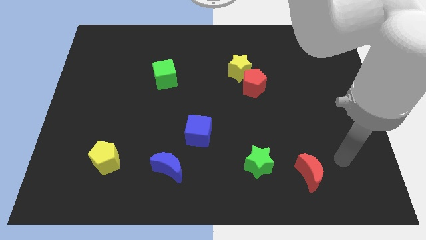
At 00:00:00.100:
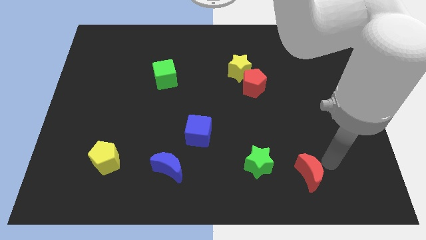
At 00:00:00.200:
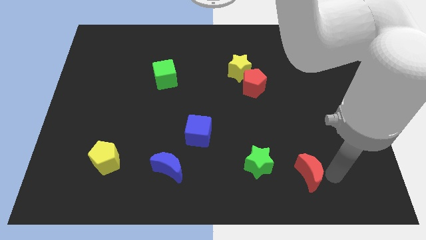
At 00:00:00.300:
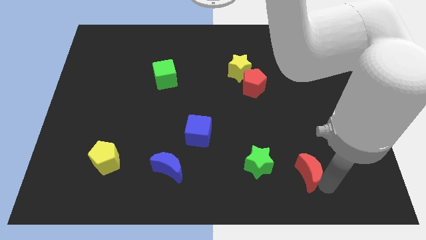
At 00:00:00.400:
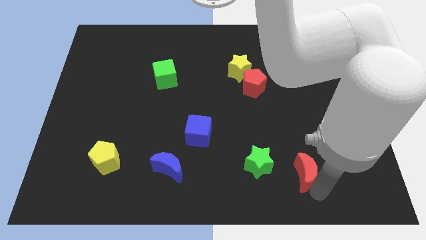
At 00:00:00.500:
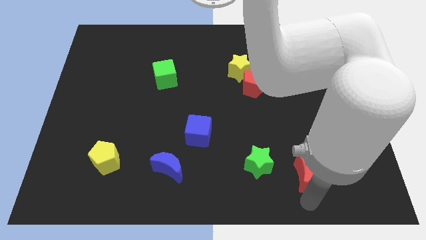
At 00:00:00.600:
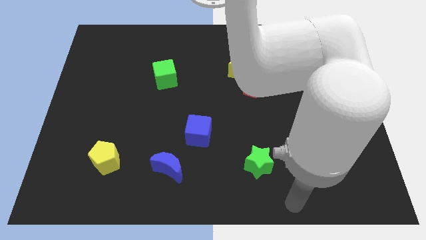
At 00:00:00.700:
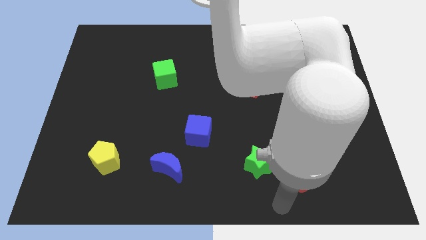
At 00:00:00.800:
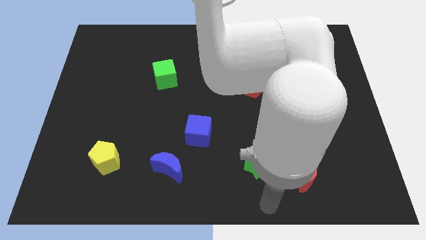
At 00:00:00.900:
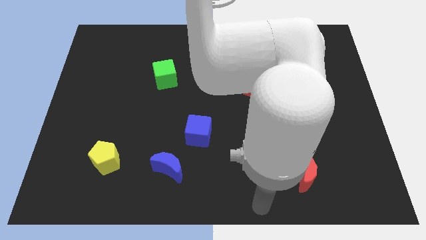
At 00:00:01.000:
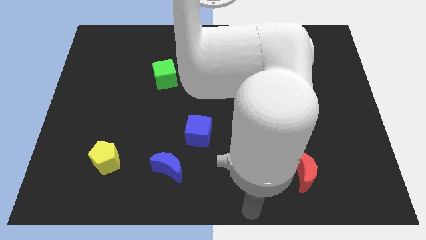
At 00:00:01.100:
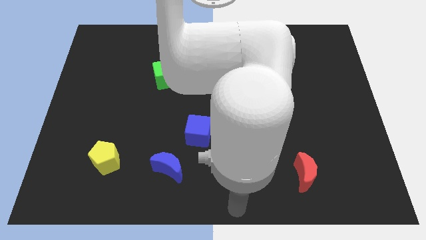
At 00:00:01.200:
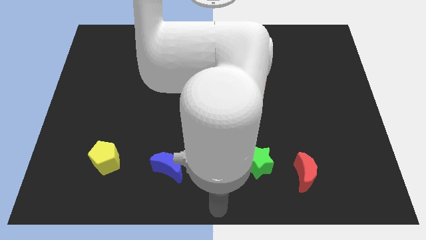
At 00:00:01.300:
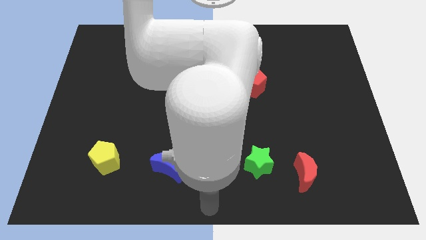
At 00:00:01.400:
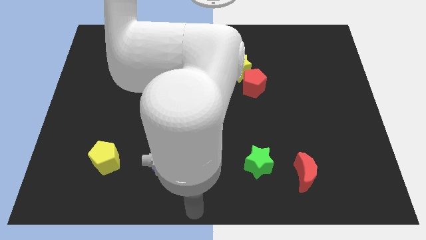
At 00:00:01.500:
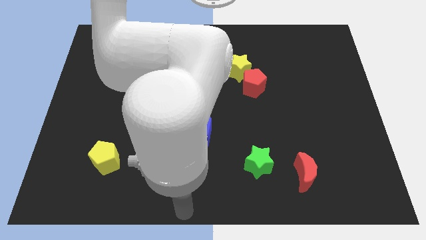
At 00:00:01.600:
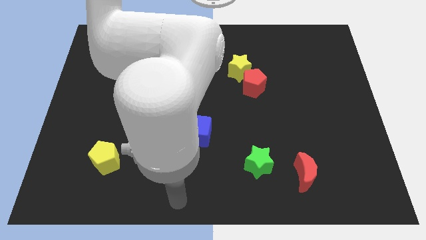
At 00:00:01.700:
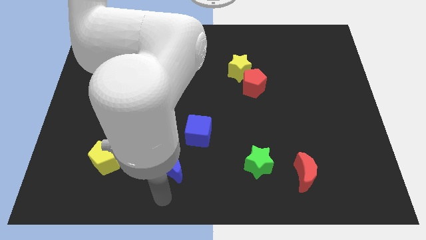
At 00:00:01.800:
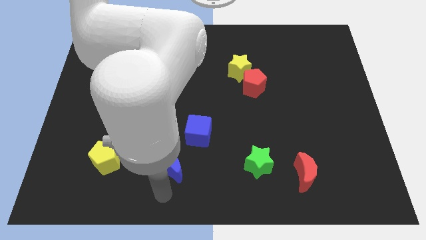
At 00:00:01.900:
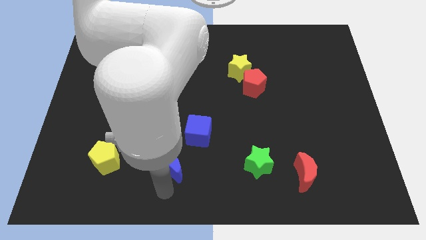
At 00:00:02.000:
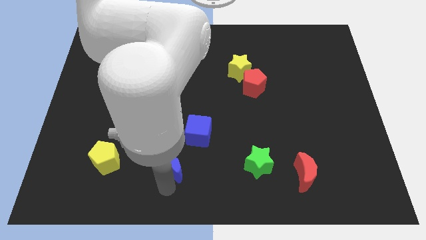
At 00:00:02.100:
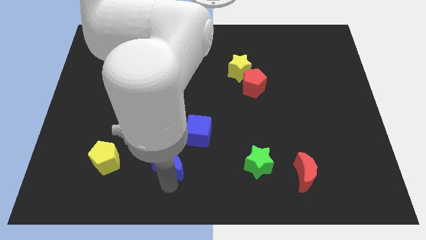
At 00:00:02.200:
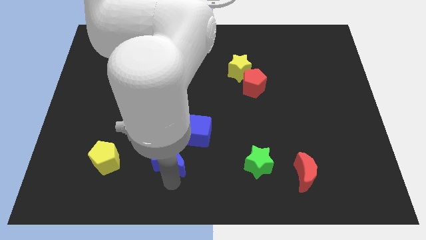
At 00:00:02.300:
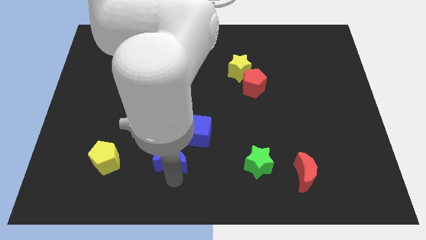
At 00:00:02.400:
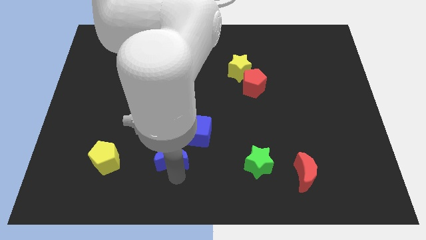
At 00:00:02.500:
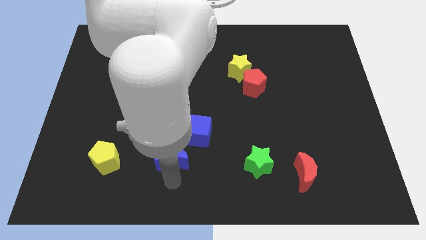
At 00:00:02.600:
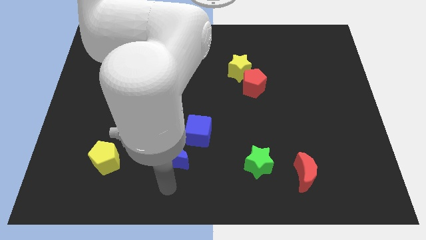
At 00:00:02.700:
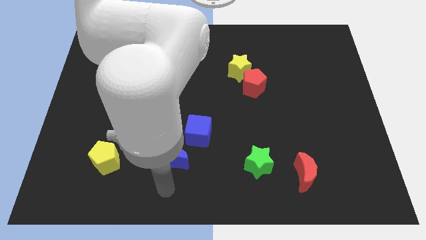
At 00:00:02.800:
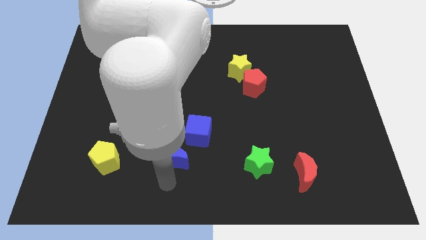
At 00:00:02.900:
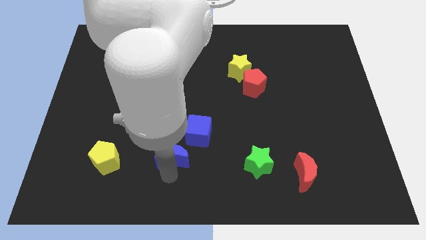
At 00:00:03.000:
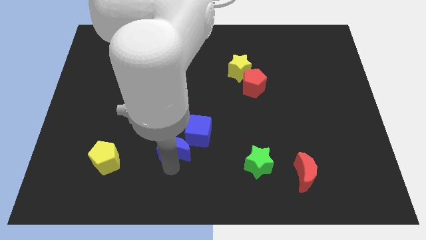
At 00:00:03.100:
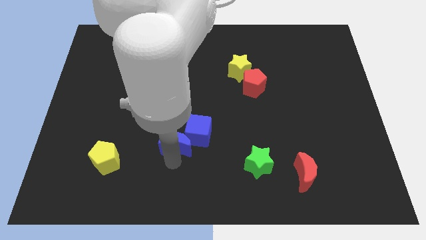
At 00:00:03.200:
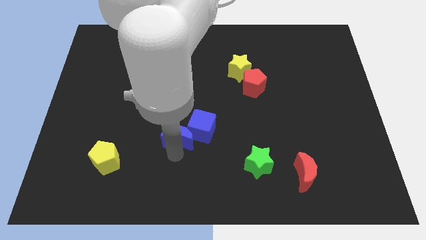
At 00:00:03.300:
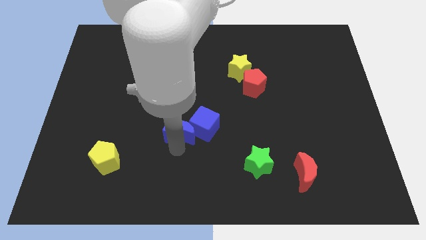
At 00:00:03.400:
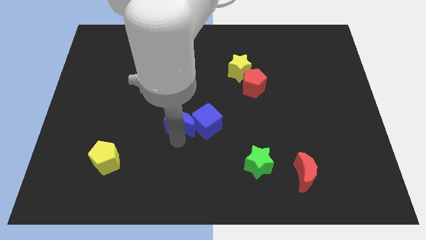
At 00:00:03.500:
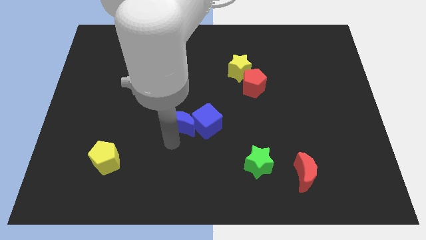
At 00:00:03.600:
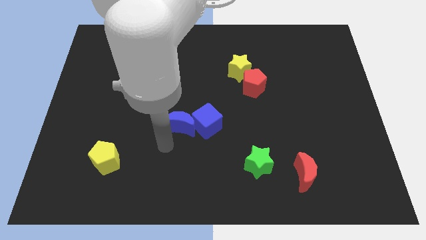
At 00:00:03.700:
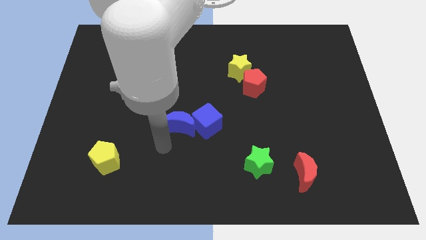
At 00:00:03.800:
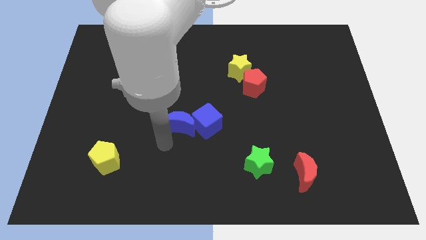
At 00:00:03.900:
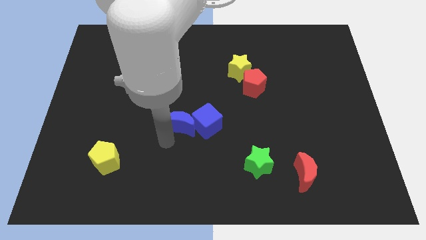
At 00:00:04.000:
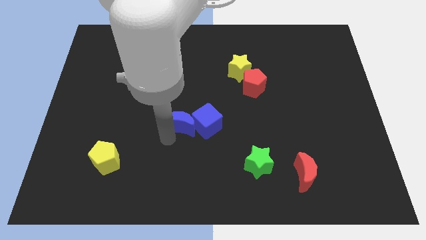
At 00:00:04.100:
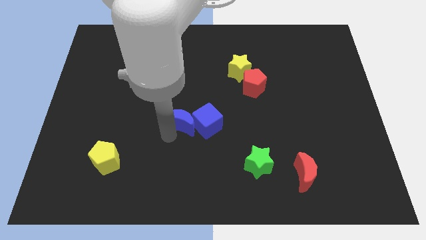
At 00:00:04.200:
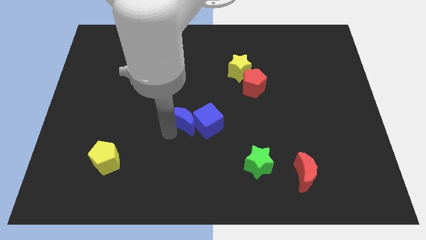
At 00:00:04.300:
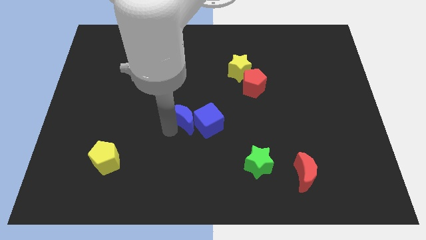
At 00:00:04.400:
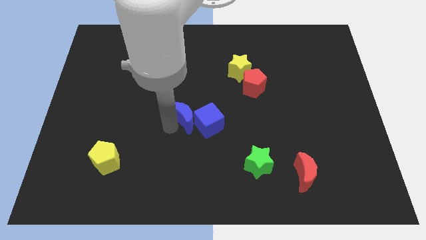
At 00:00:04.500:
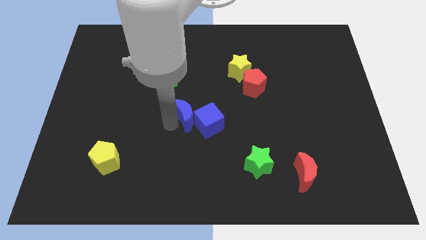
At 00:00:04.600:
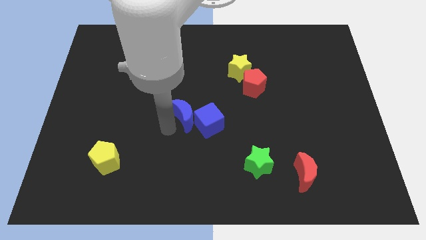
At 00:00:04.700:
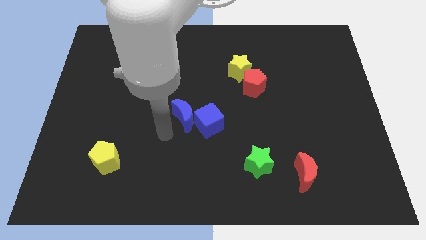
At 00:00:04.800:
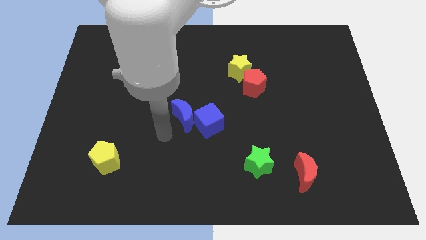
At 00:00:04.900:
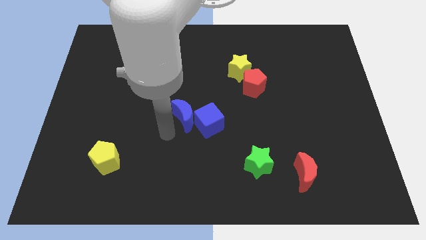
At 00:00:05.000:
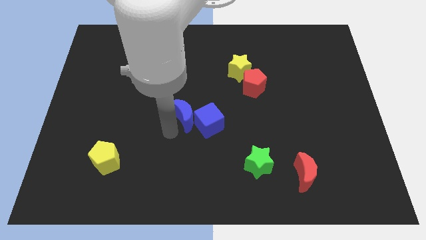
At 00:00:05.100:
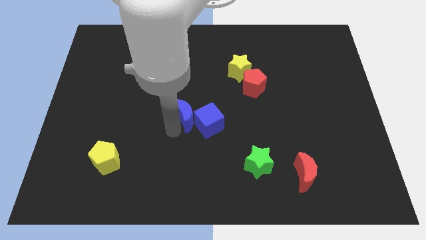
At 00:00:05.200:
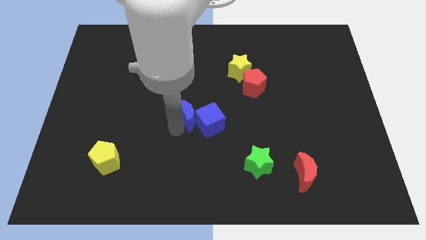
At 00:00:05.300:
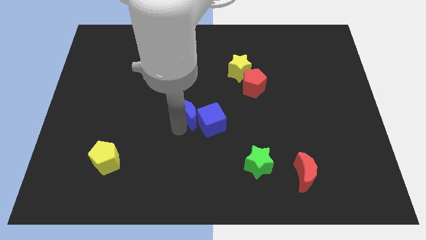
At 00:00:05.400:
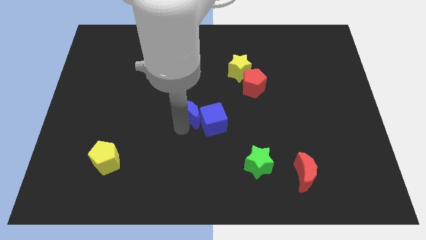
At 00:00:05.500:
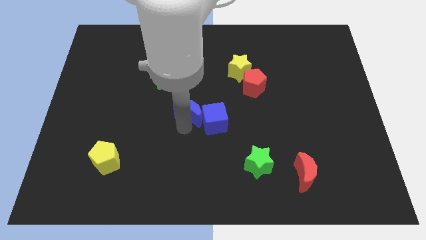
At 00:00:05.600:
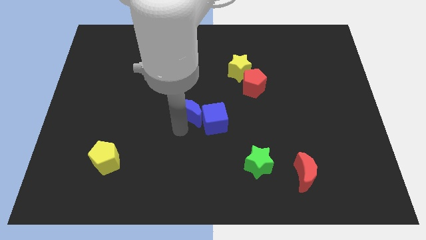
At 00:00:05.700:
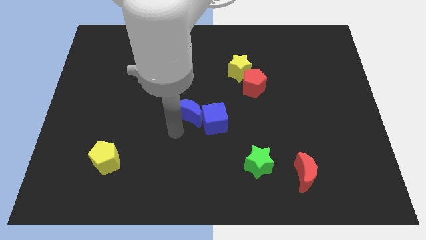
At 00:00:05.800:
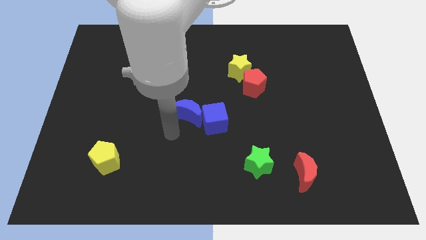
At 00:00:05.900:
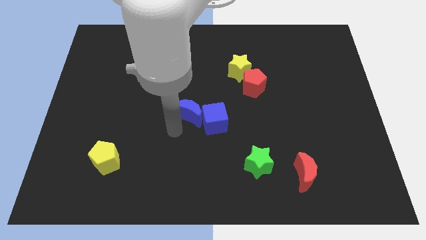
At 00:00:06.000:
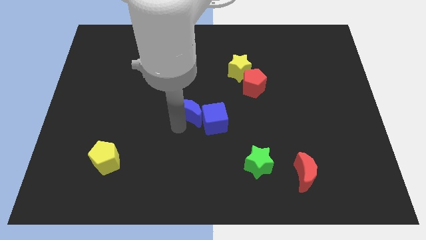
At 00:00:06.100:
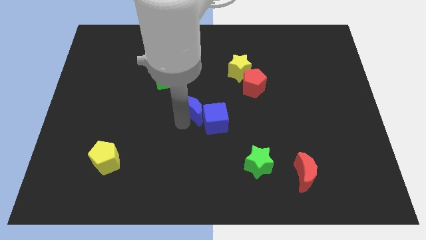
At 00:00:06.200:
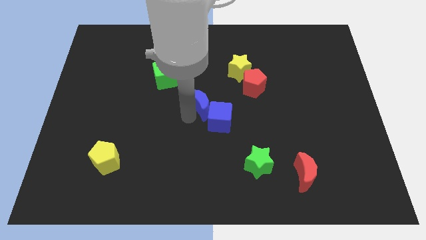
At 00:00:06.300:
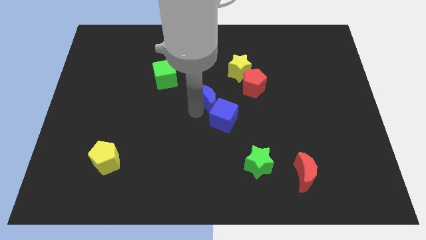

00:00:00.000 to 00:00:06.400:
move the blue moon to the bottom left of the yellow star

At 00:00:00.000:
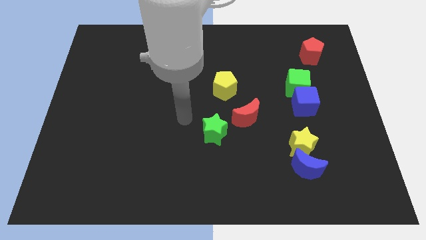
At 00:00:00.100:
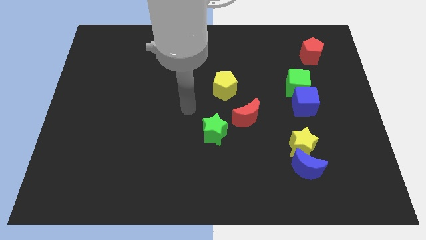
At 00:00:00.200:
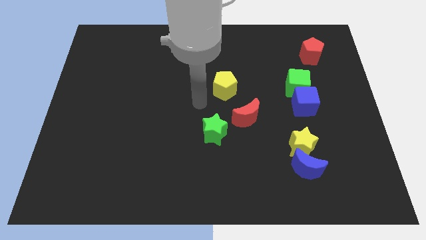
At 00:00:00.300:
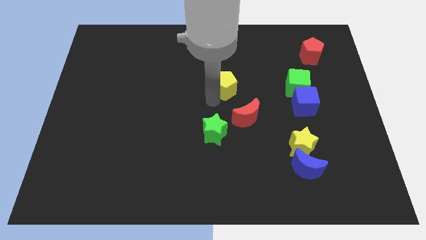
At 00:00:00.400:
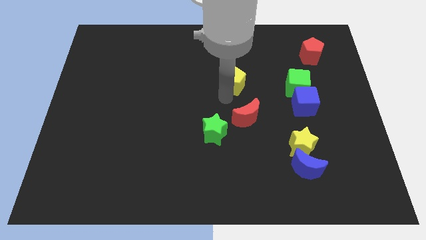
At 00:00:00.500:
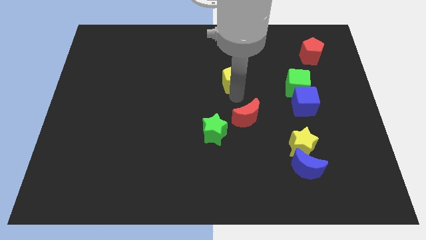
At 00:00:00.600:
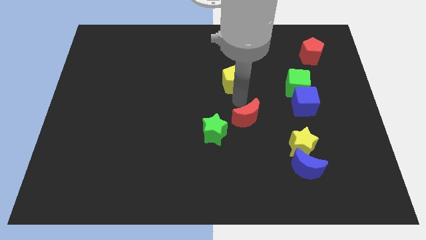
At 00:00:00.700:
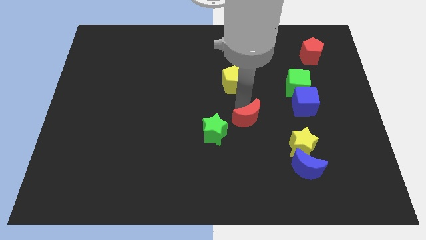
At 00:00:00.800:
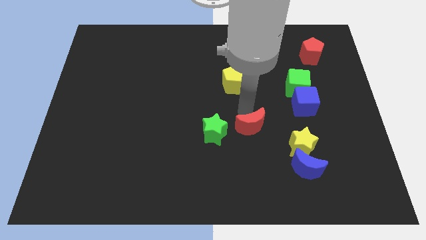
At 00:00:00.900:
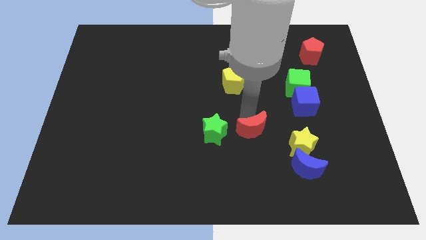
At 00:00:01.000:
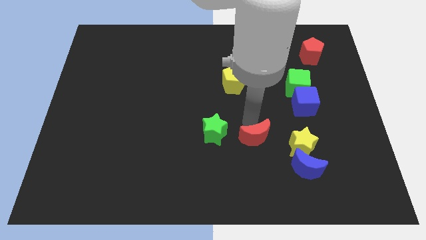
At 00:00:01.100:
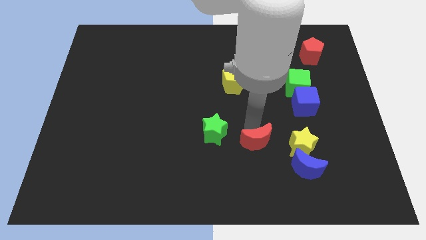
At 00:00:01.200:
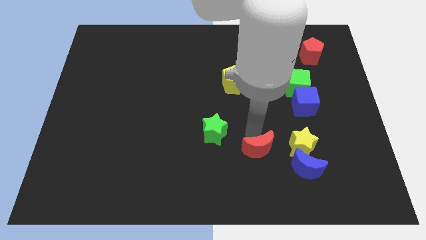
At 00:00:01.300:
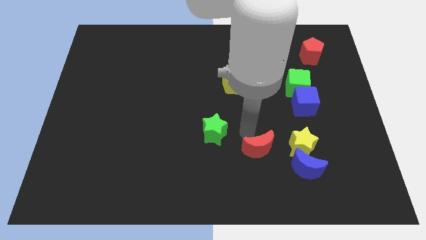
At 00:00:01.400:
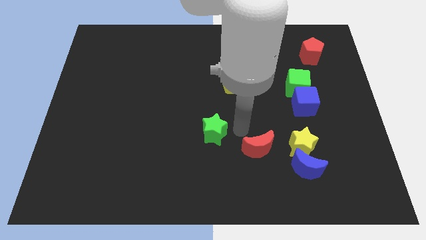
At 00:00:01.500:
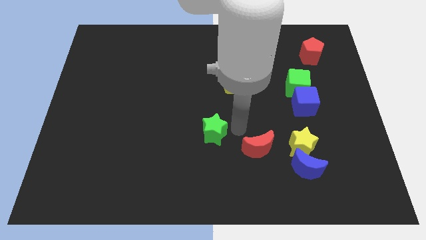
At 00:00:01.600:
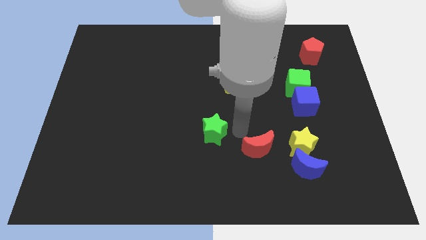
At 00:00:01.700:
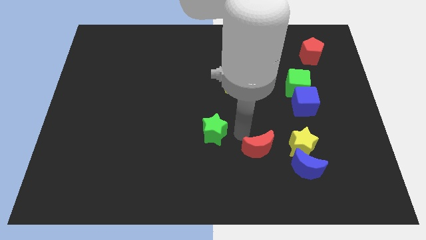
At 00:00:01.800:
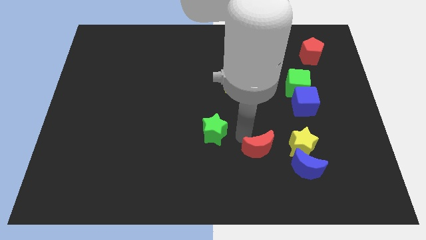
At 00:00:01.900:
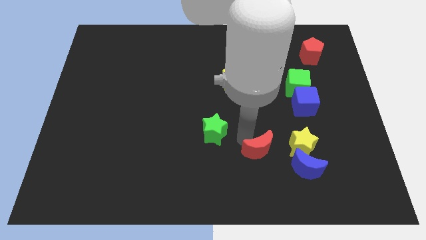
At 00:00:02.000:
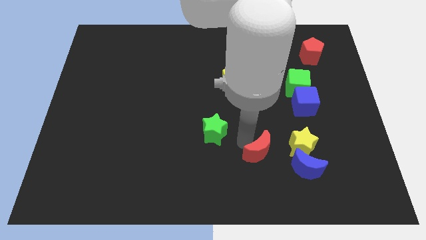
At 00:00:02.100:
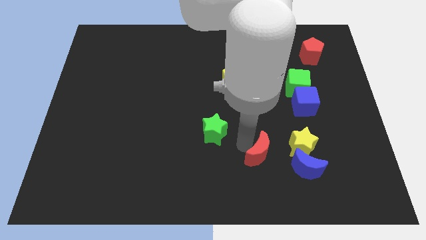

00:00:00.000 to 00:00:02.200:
move the red moon to the bottom left side of the yellow star
